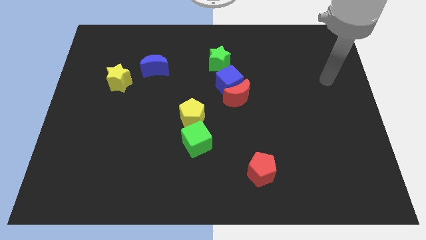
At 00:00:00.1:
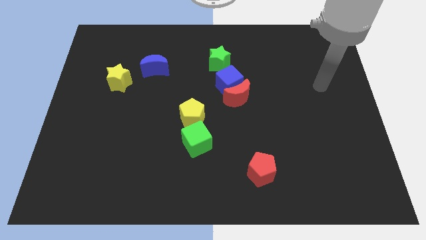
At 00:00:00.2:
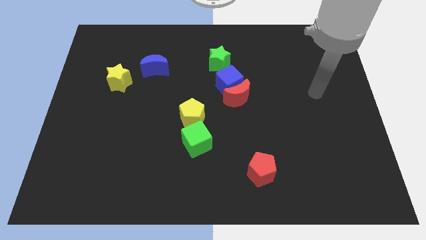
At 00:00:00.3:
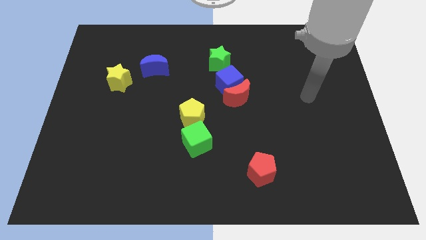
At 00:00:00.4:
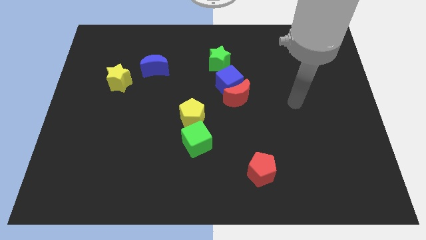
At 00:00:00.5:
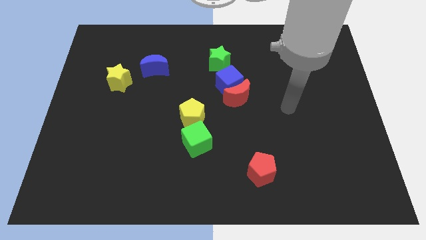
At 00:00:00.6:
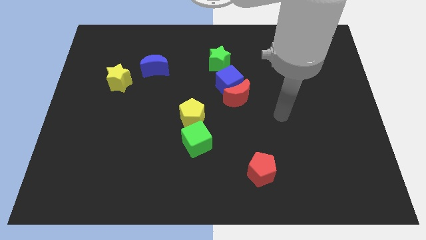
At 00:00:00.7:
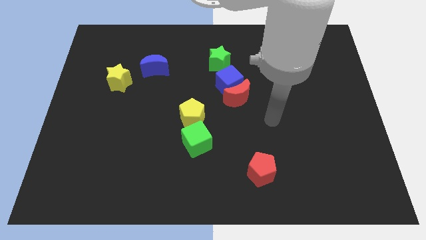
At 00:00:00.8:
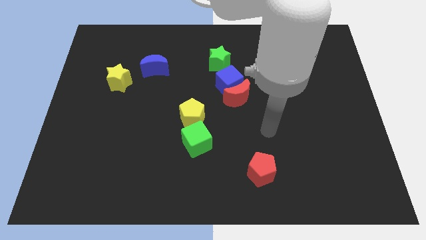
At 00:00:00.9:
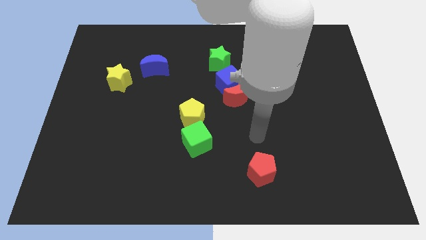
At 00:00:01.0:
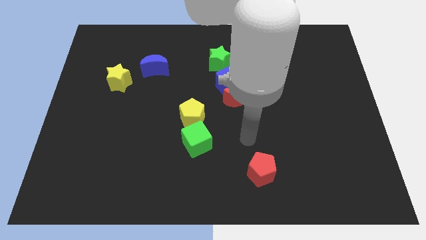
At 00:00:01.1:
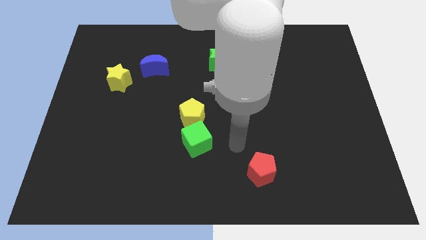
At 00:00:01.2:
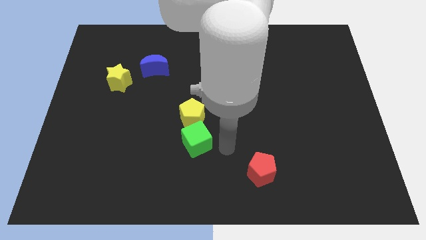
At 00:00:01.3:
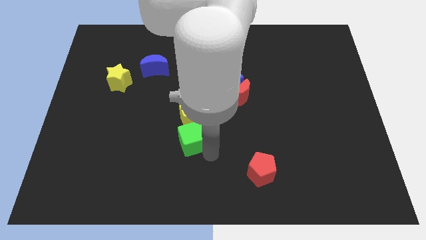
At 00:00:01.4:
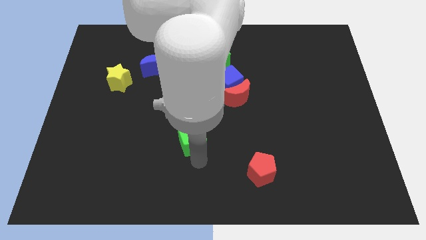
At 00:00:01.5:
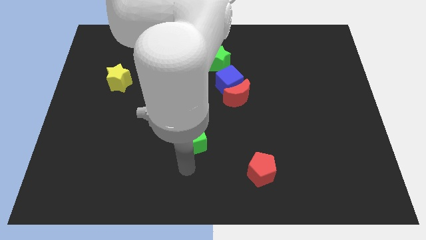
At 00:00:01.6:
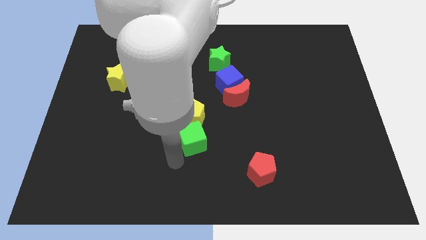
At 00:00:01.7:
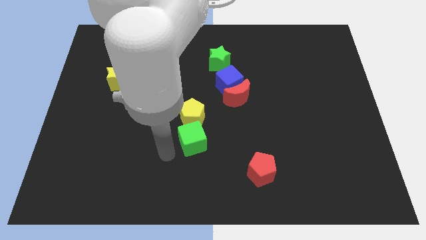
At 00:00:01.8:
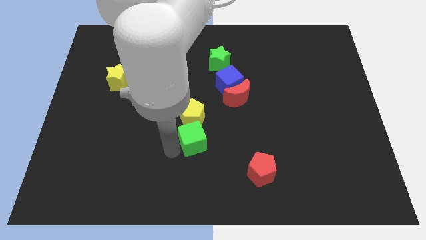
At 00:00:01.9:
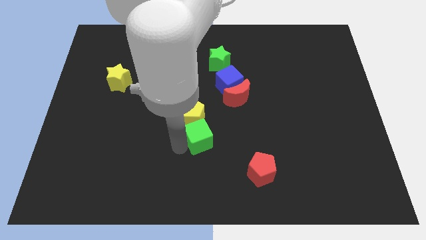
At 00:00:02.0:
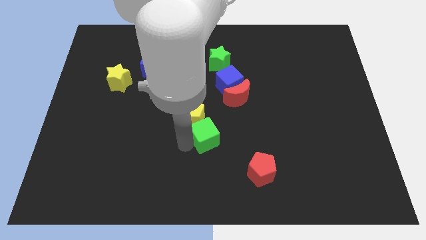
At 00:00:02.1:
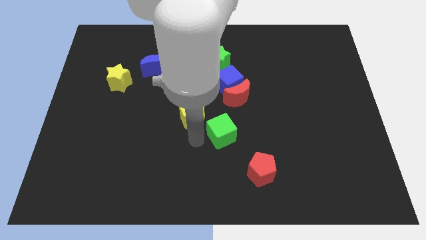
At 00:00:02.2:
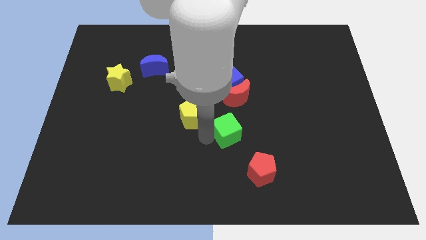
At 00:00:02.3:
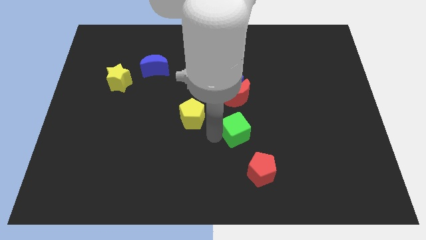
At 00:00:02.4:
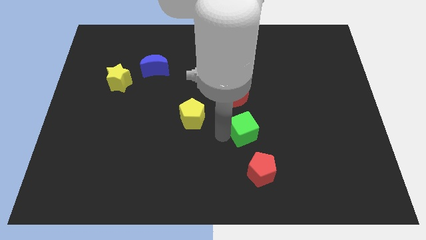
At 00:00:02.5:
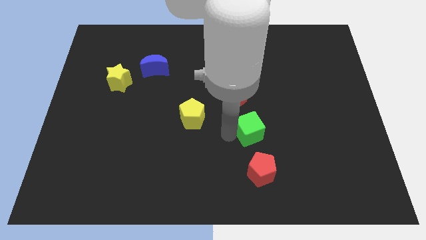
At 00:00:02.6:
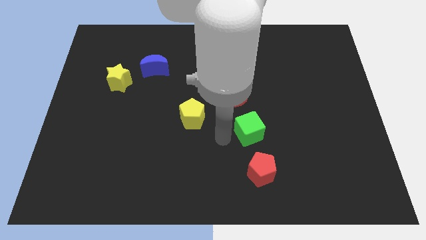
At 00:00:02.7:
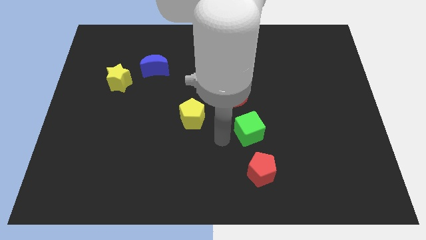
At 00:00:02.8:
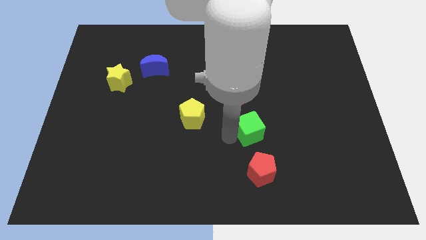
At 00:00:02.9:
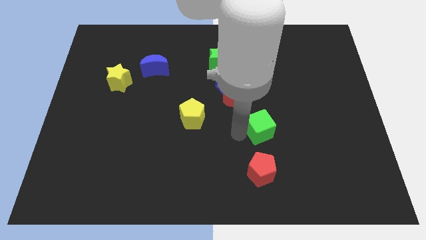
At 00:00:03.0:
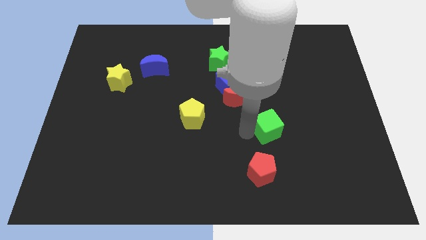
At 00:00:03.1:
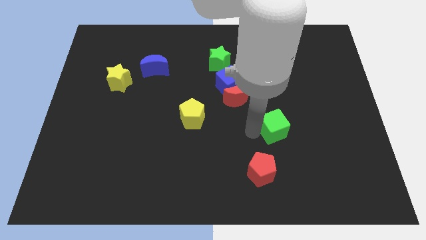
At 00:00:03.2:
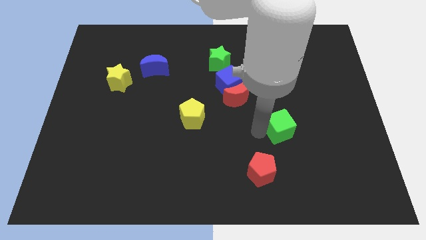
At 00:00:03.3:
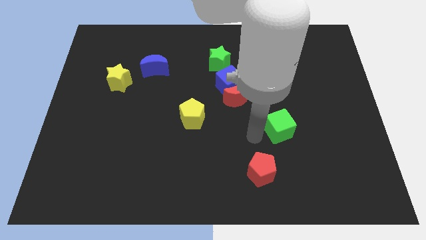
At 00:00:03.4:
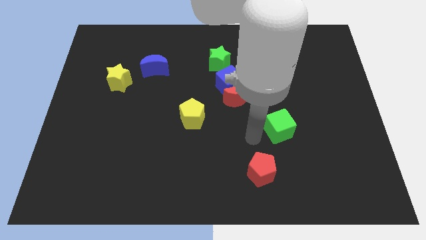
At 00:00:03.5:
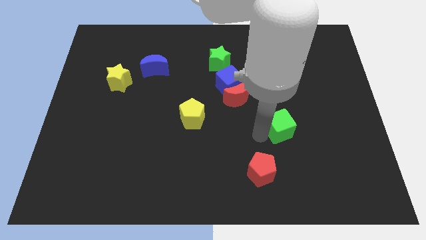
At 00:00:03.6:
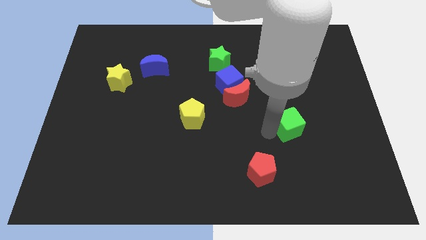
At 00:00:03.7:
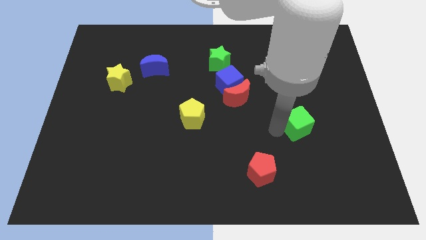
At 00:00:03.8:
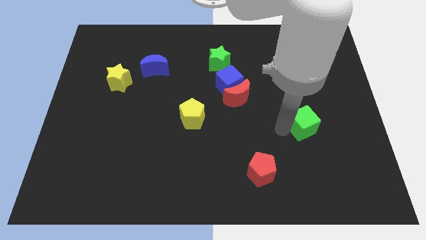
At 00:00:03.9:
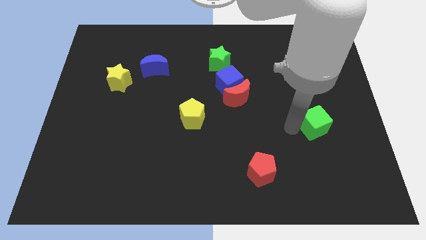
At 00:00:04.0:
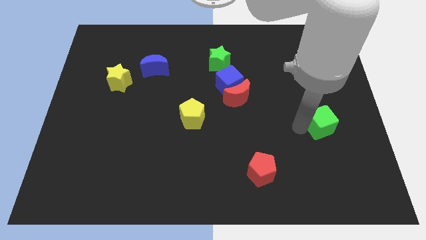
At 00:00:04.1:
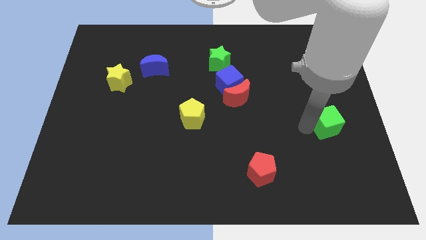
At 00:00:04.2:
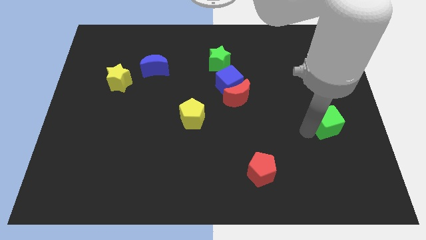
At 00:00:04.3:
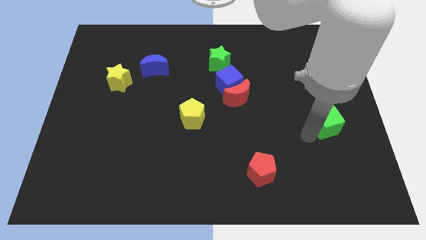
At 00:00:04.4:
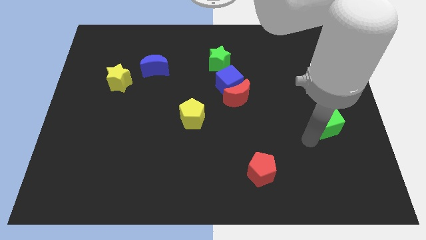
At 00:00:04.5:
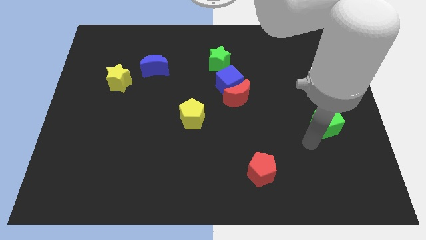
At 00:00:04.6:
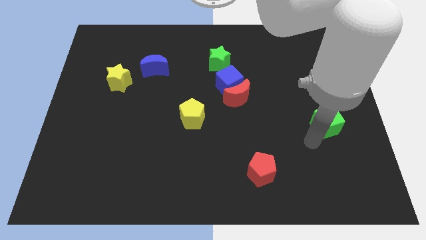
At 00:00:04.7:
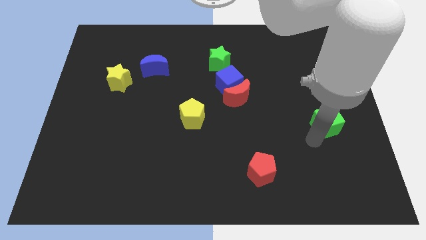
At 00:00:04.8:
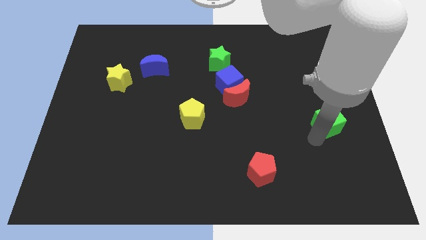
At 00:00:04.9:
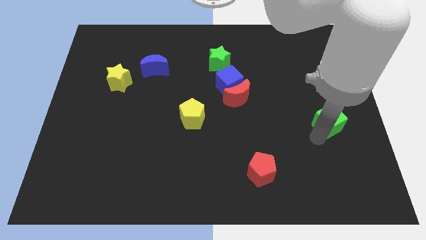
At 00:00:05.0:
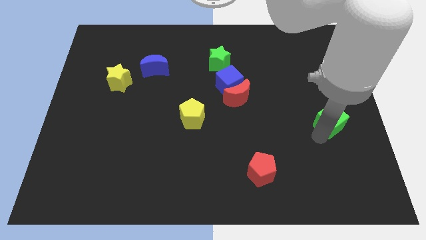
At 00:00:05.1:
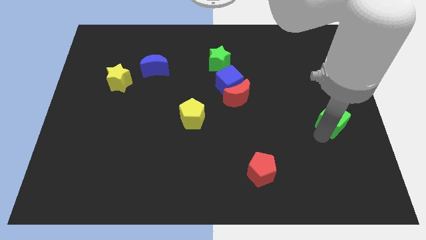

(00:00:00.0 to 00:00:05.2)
slide the green cube to the right side of the board
